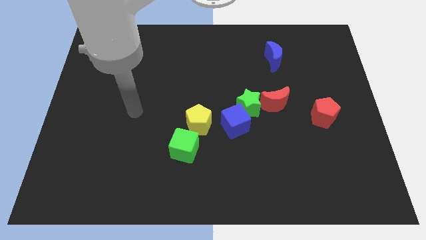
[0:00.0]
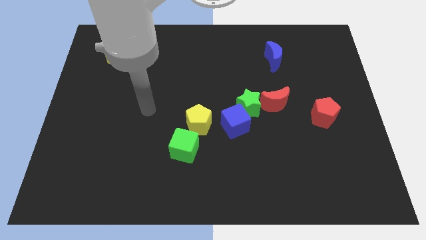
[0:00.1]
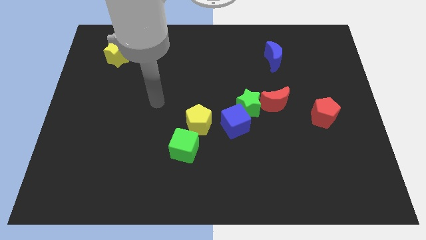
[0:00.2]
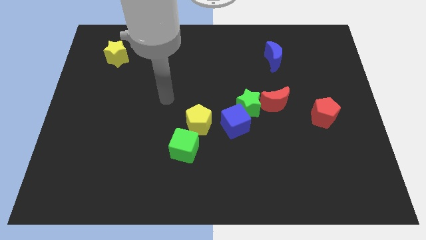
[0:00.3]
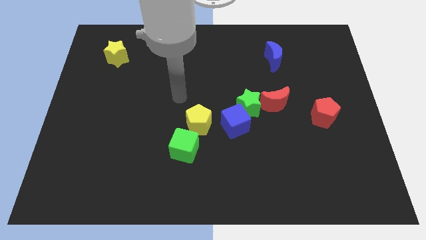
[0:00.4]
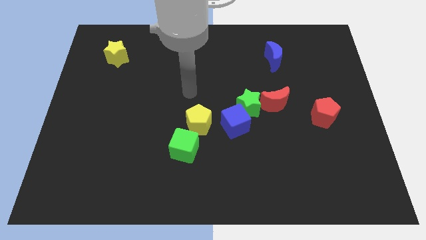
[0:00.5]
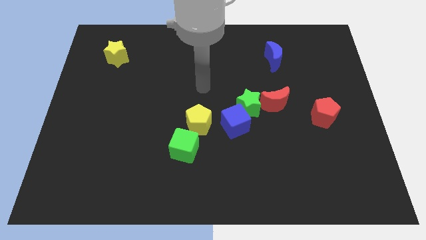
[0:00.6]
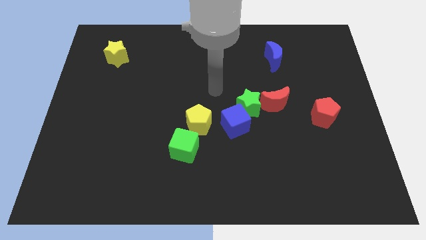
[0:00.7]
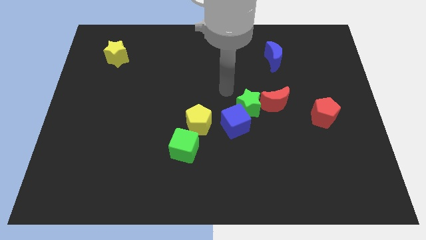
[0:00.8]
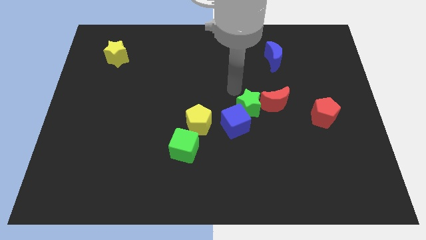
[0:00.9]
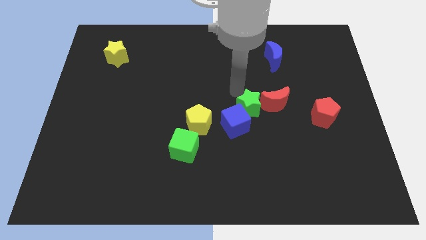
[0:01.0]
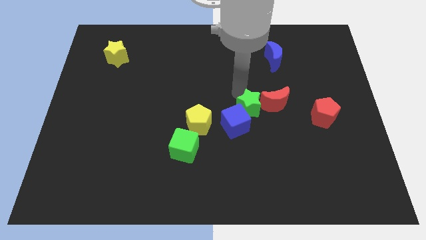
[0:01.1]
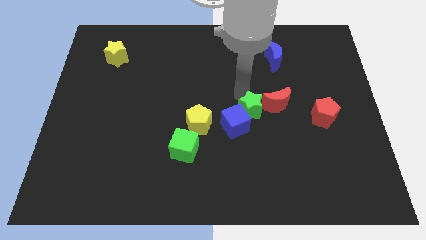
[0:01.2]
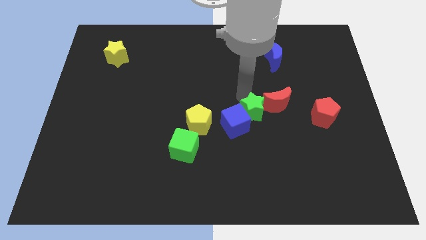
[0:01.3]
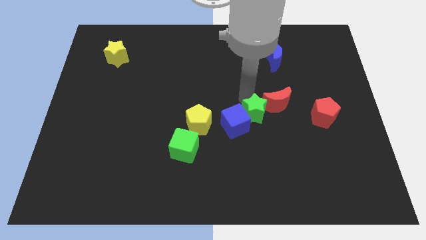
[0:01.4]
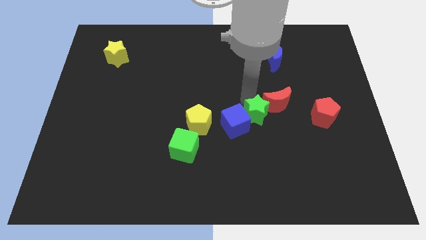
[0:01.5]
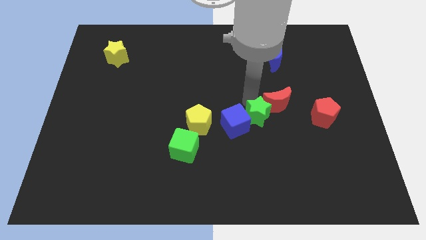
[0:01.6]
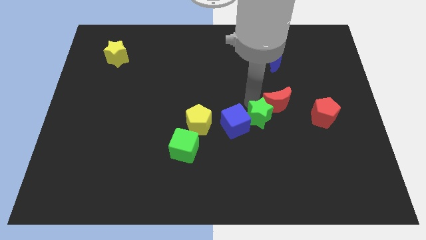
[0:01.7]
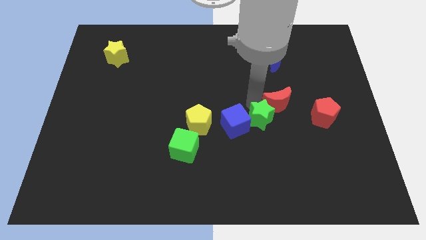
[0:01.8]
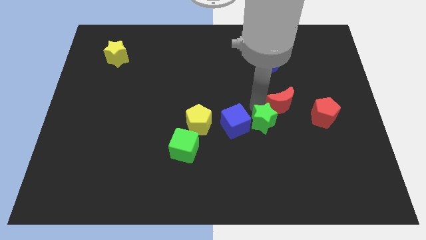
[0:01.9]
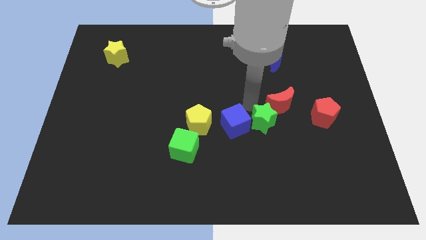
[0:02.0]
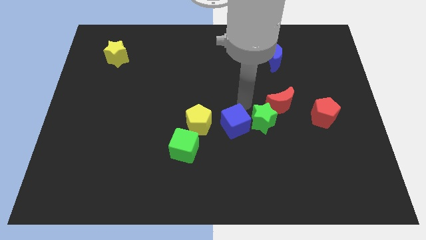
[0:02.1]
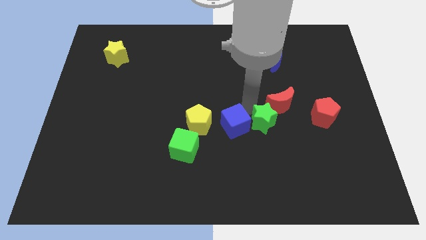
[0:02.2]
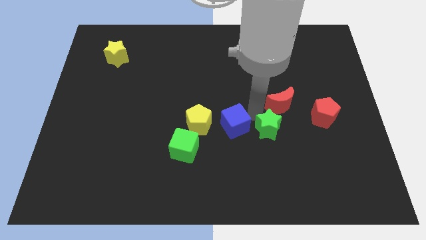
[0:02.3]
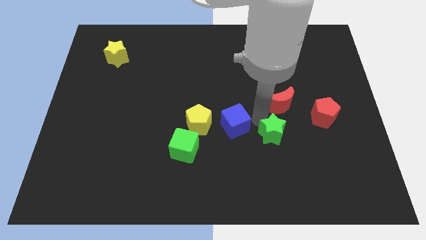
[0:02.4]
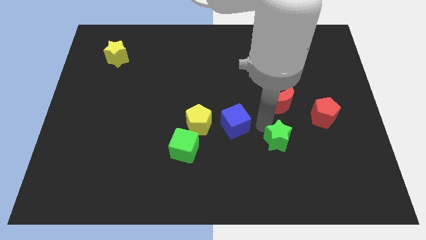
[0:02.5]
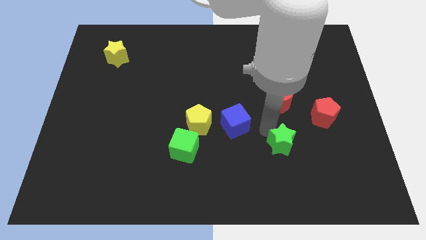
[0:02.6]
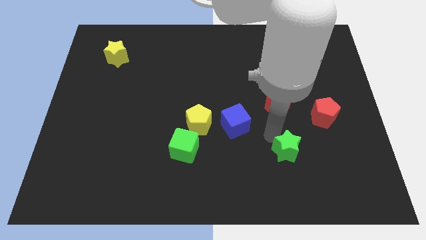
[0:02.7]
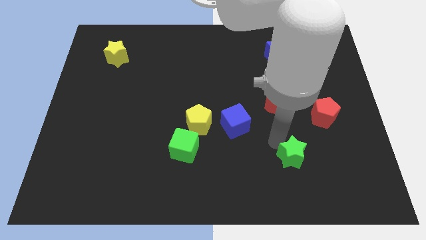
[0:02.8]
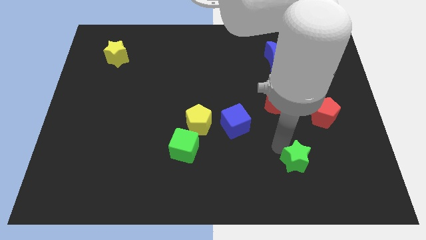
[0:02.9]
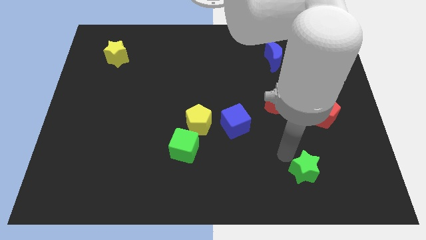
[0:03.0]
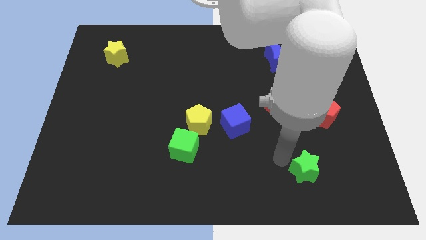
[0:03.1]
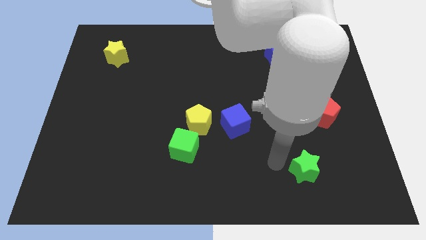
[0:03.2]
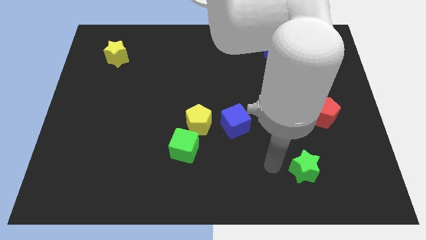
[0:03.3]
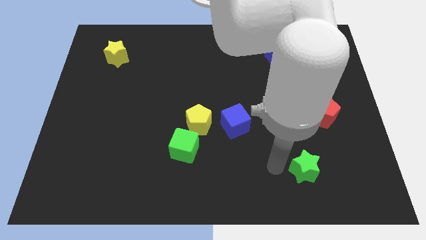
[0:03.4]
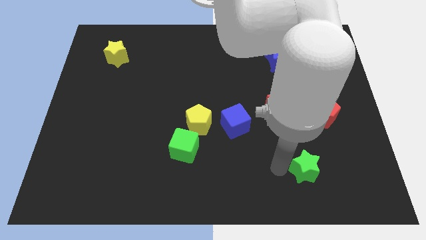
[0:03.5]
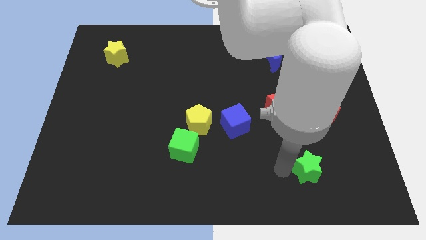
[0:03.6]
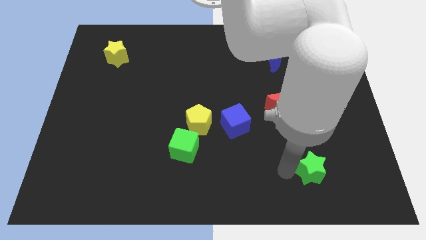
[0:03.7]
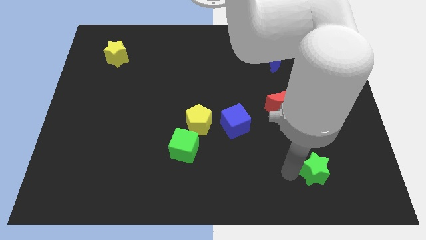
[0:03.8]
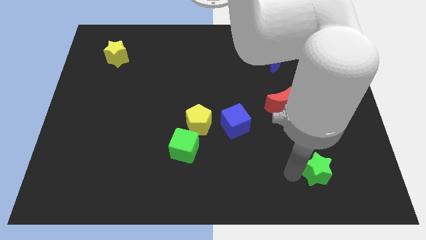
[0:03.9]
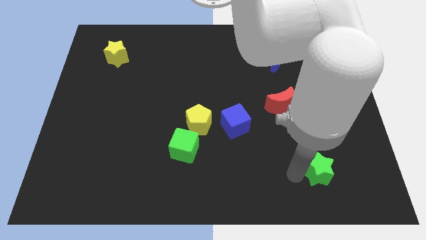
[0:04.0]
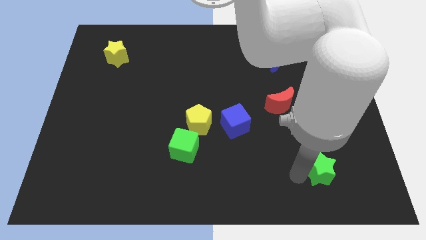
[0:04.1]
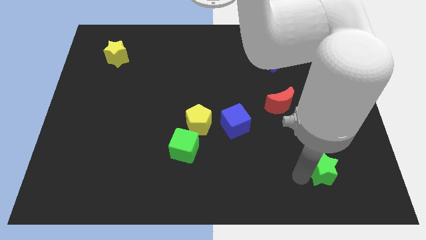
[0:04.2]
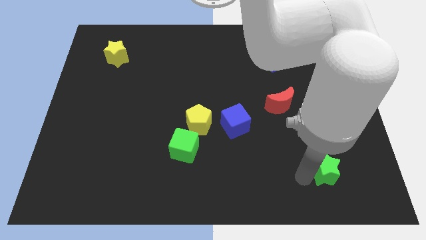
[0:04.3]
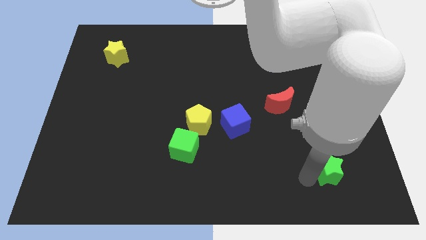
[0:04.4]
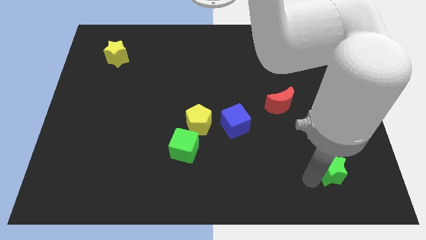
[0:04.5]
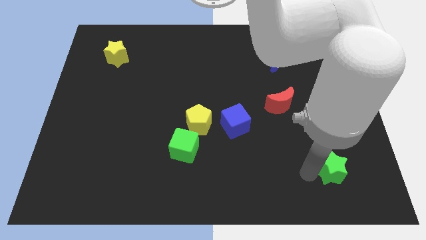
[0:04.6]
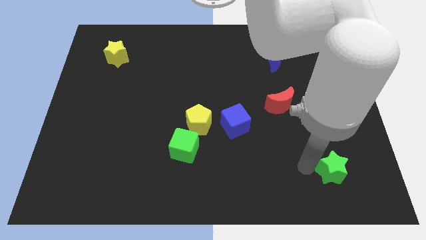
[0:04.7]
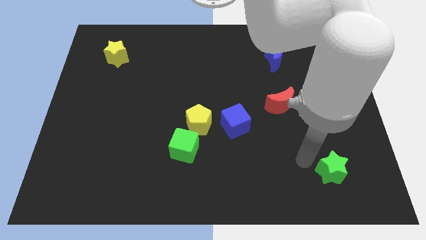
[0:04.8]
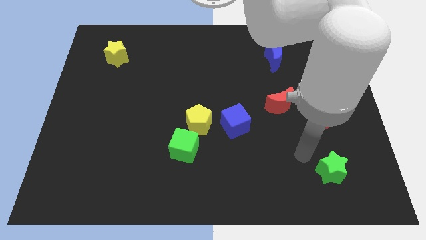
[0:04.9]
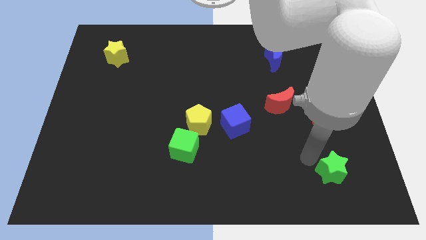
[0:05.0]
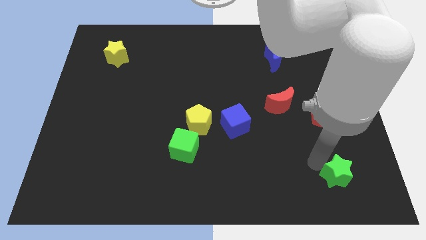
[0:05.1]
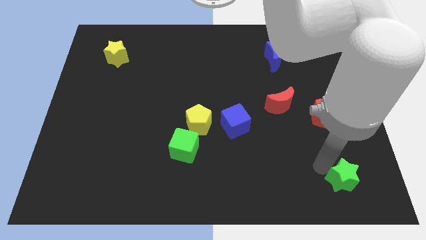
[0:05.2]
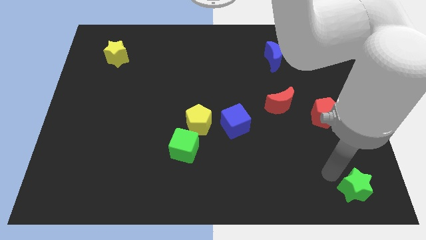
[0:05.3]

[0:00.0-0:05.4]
push the green star to the bottom right of the board

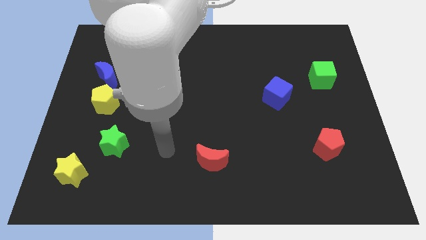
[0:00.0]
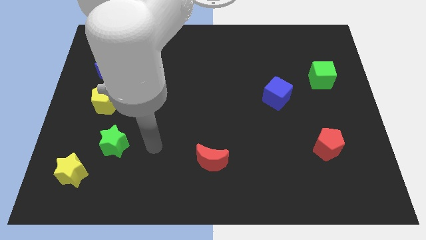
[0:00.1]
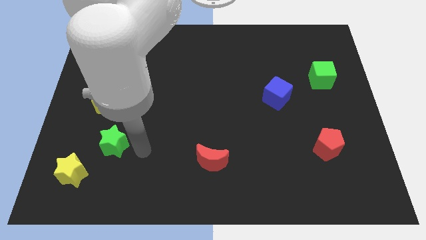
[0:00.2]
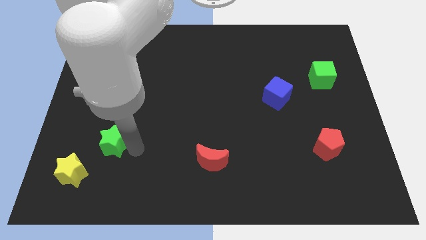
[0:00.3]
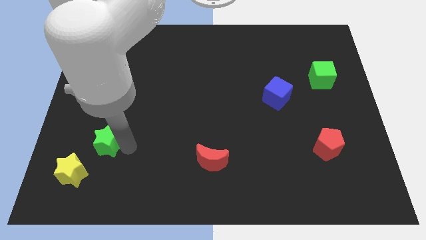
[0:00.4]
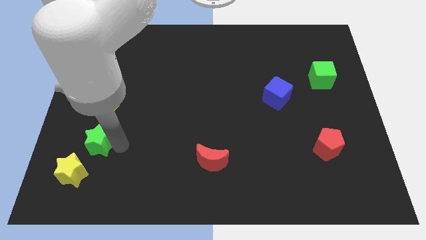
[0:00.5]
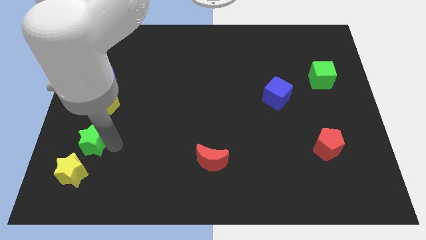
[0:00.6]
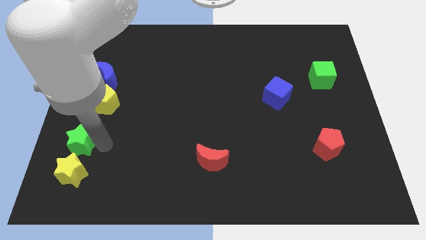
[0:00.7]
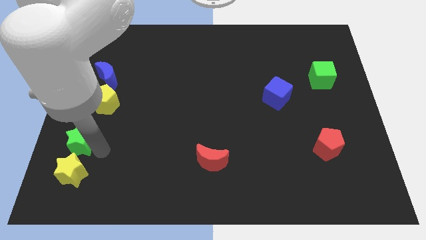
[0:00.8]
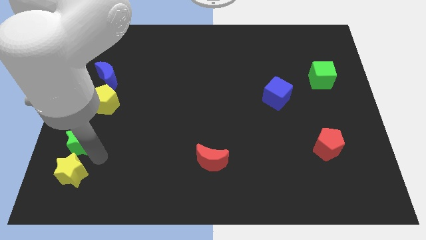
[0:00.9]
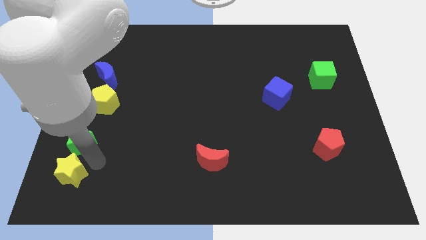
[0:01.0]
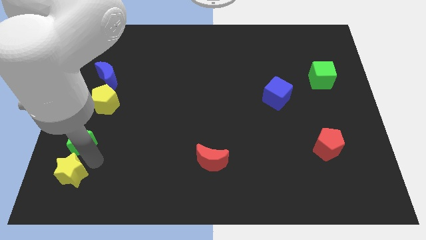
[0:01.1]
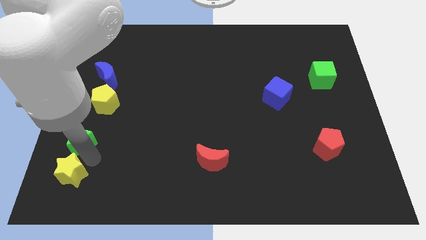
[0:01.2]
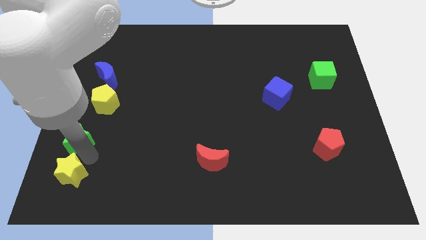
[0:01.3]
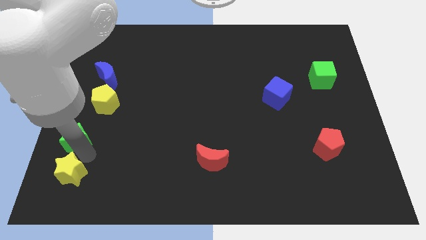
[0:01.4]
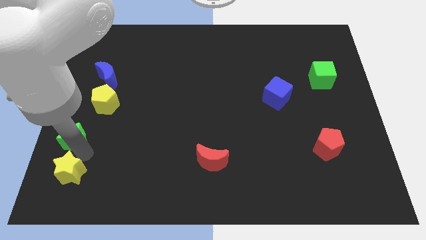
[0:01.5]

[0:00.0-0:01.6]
push the green star to the left side
